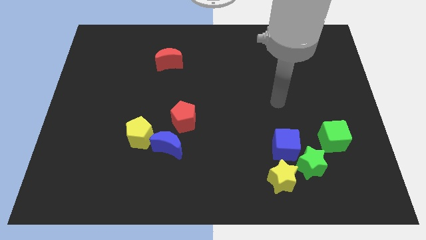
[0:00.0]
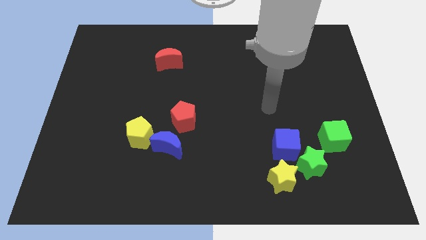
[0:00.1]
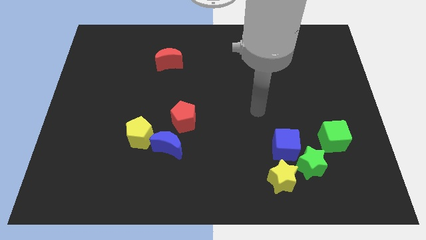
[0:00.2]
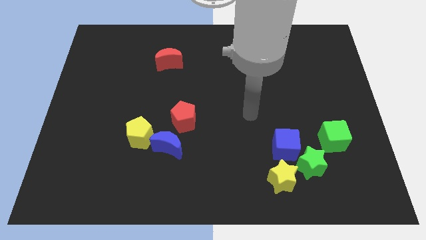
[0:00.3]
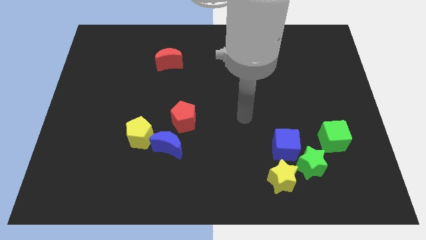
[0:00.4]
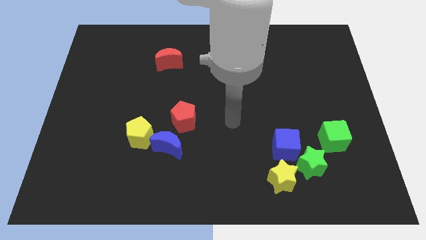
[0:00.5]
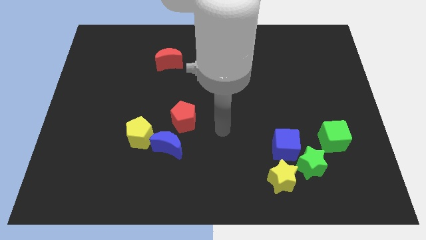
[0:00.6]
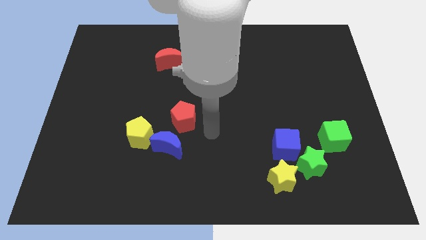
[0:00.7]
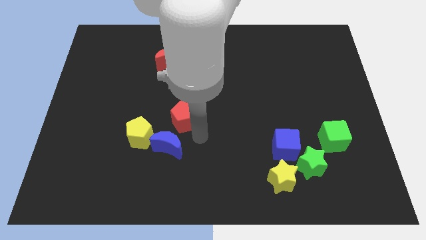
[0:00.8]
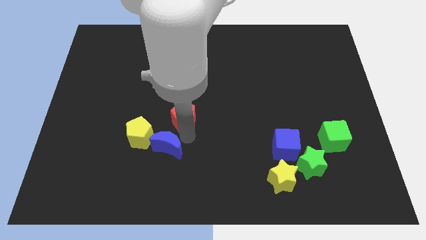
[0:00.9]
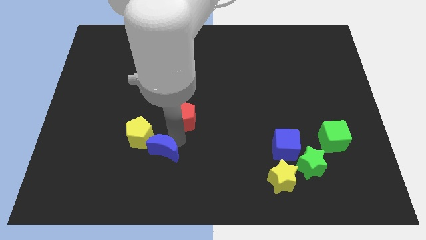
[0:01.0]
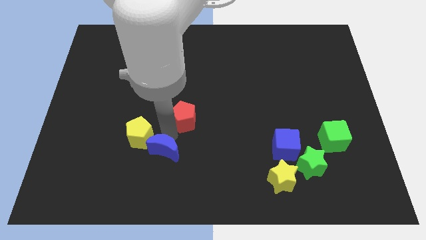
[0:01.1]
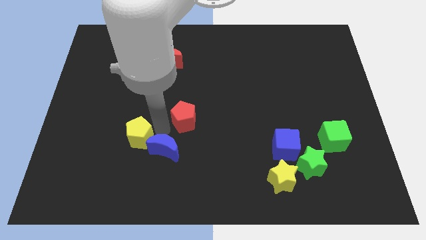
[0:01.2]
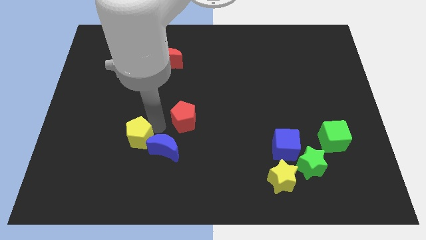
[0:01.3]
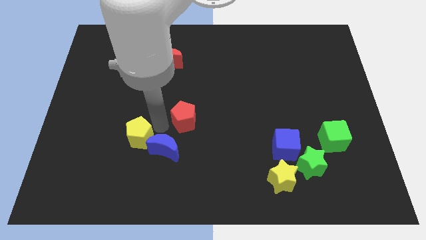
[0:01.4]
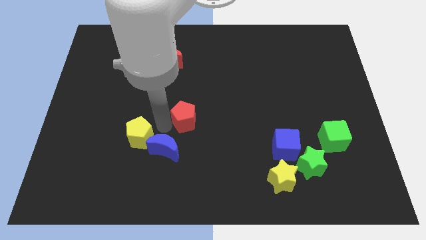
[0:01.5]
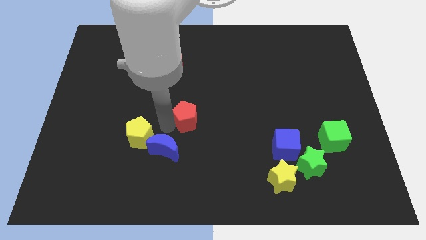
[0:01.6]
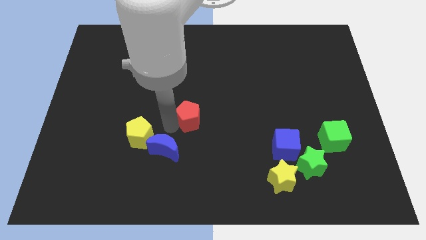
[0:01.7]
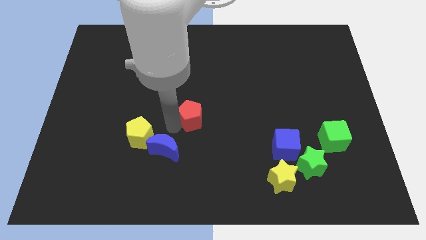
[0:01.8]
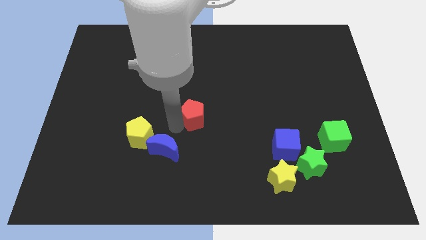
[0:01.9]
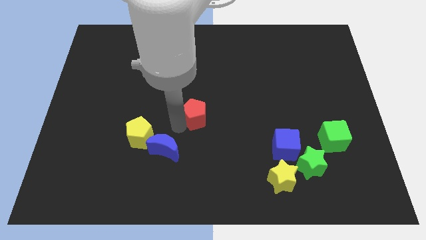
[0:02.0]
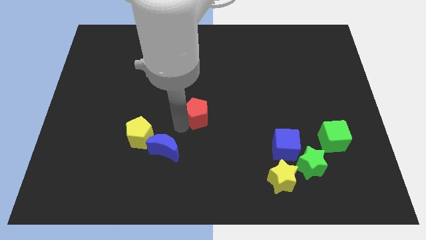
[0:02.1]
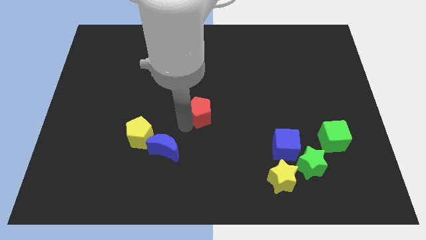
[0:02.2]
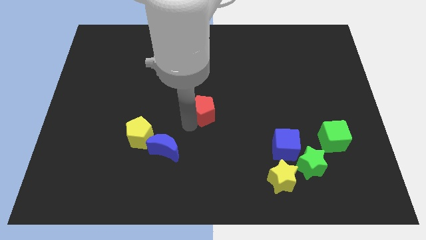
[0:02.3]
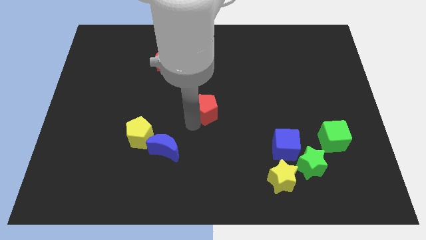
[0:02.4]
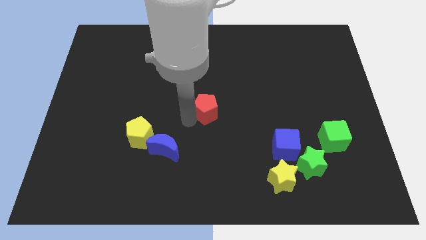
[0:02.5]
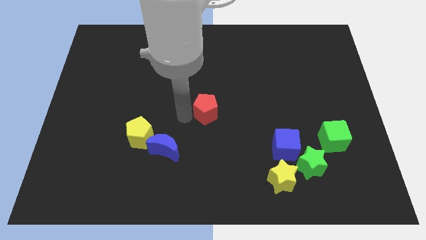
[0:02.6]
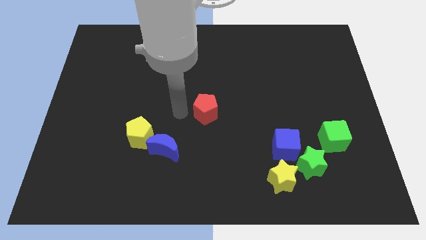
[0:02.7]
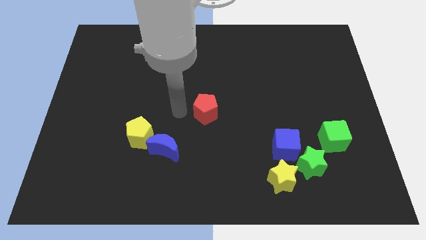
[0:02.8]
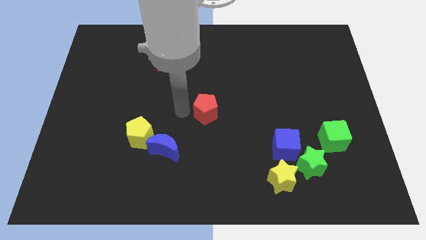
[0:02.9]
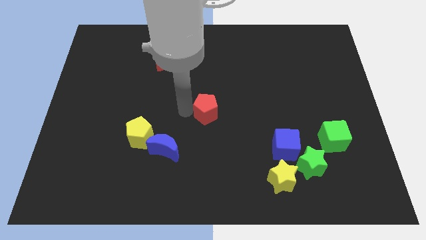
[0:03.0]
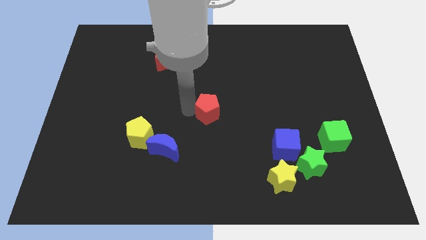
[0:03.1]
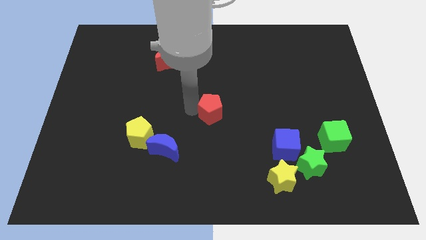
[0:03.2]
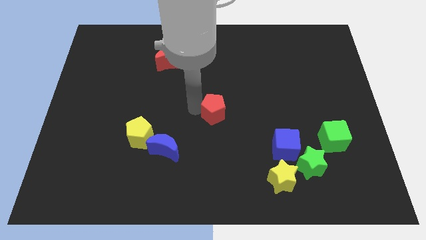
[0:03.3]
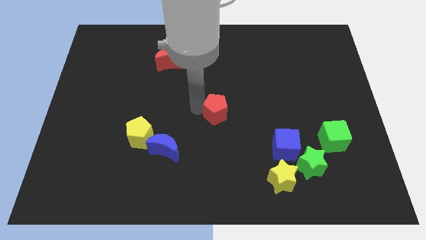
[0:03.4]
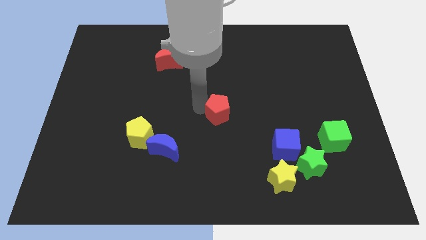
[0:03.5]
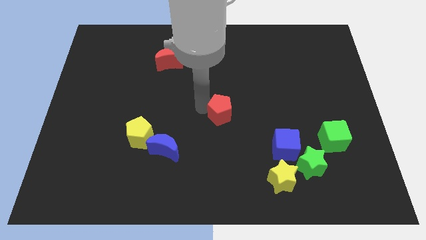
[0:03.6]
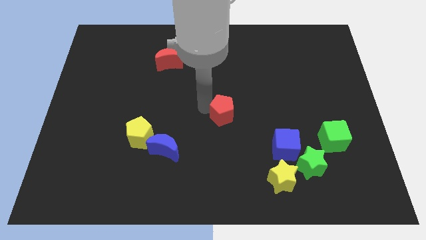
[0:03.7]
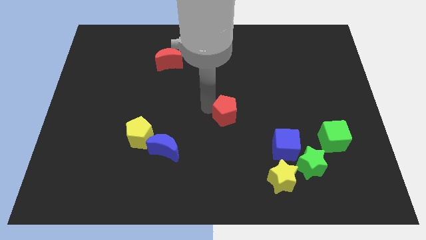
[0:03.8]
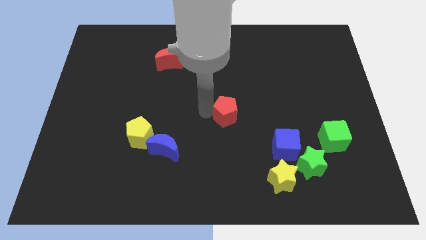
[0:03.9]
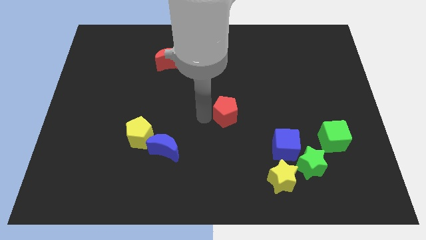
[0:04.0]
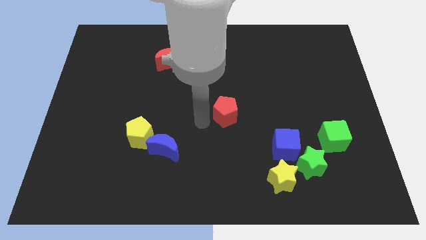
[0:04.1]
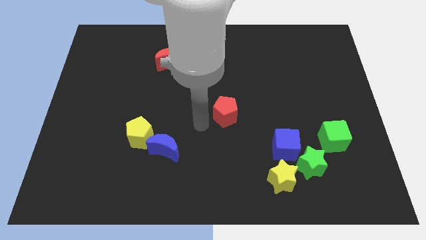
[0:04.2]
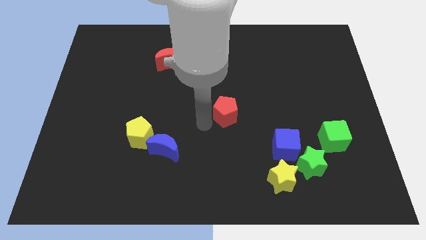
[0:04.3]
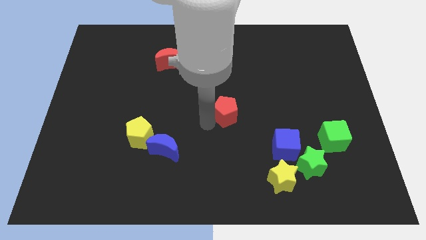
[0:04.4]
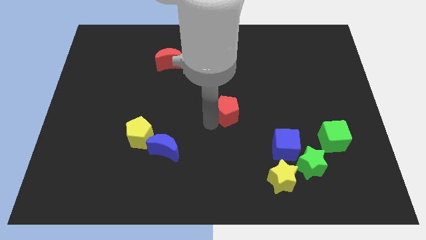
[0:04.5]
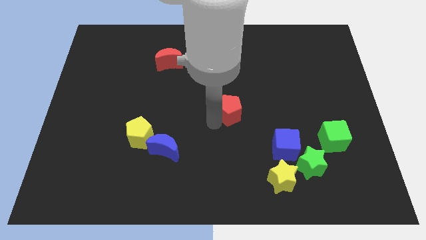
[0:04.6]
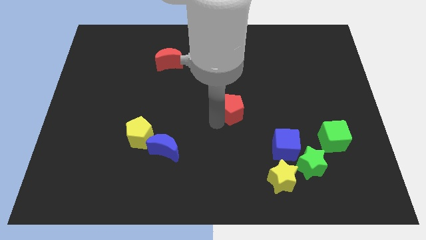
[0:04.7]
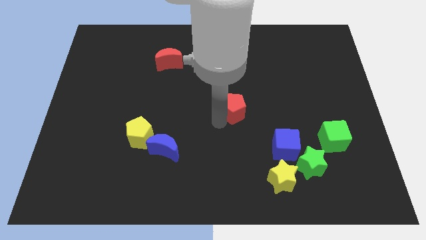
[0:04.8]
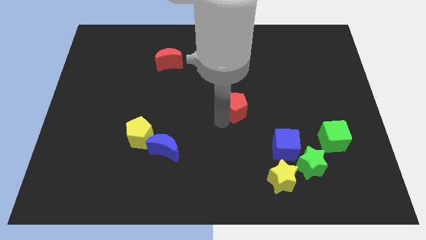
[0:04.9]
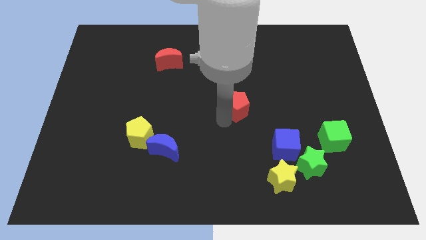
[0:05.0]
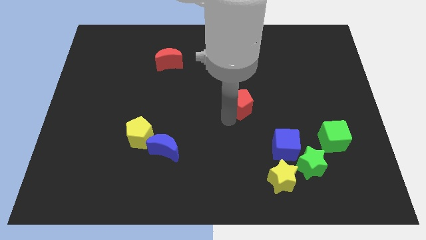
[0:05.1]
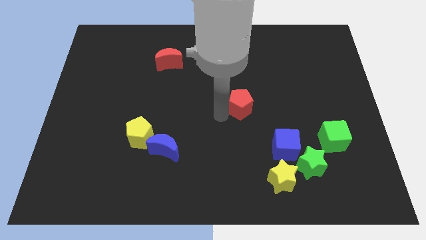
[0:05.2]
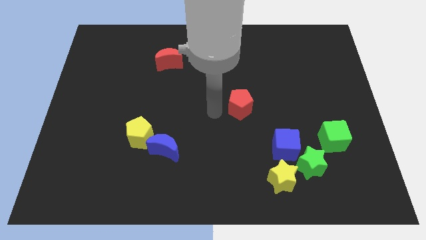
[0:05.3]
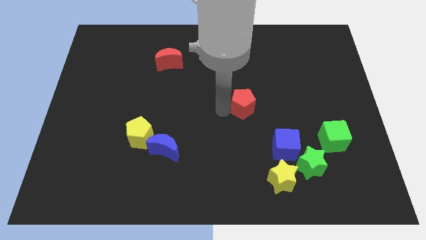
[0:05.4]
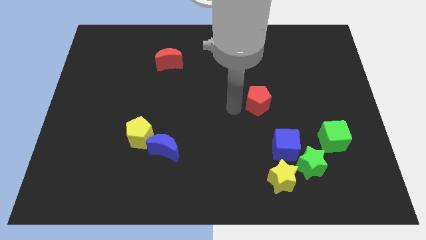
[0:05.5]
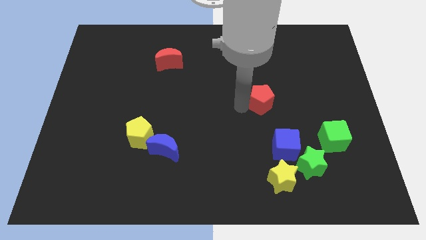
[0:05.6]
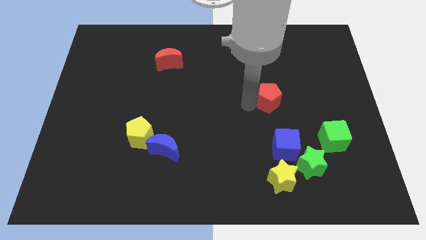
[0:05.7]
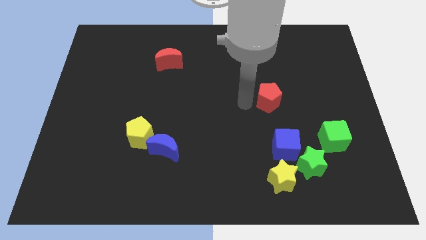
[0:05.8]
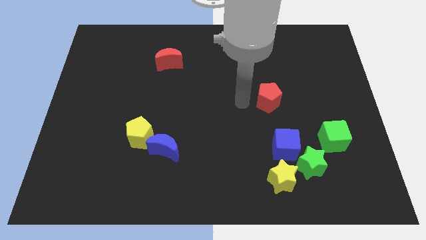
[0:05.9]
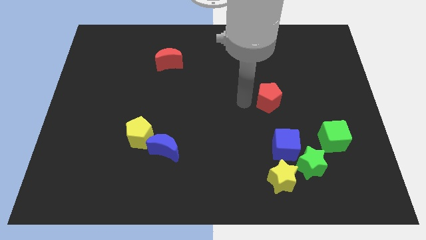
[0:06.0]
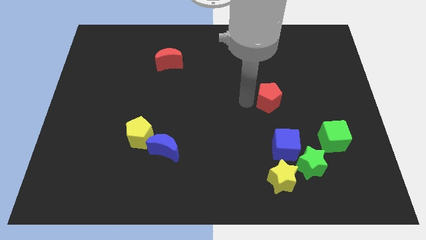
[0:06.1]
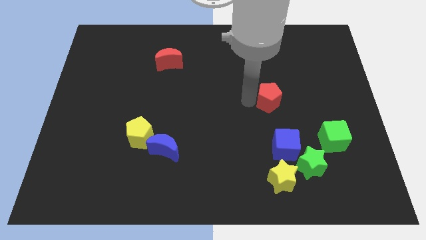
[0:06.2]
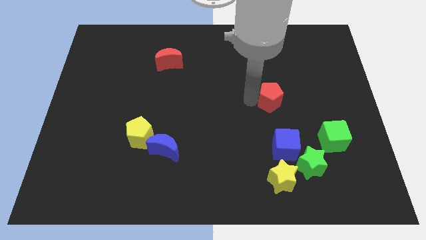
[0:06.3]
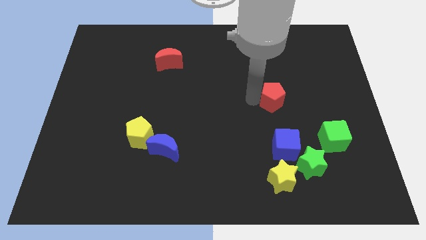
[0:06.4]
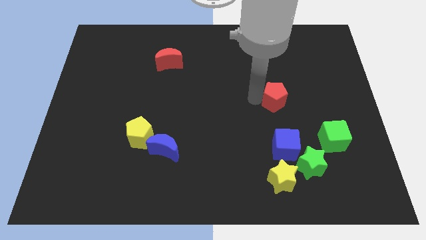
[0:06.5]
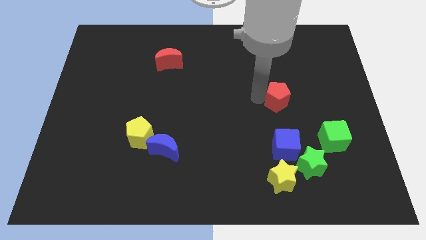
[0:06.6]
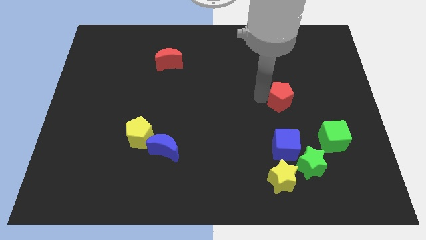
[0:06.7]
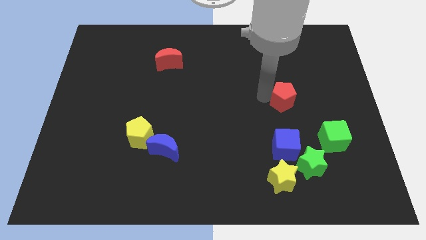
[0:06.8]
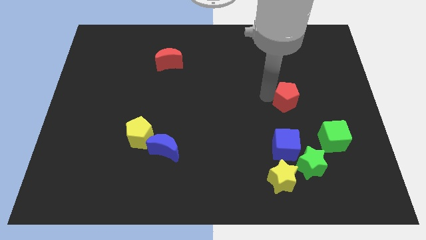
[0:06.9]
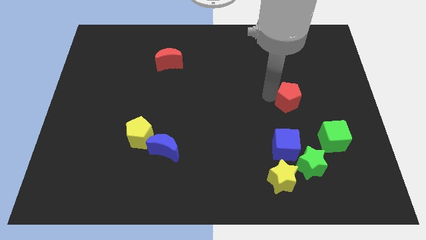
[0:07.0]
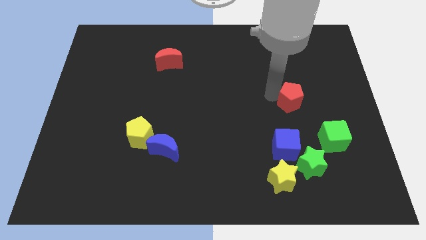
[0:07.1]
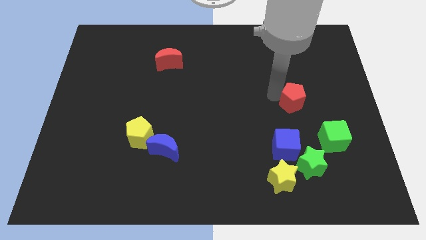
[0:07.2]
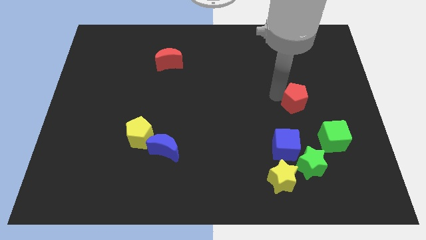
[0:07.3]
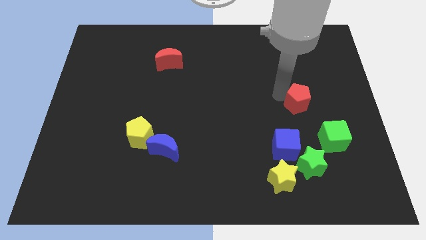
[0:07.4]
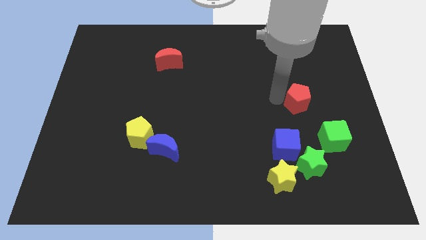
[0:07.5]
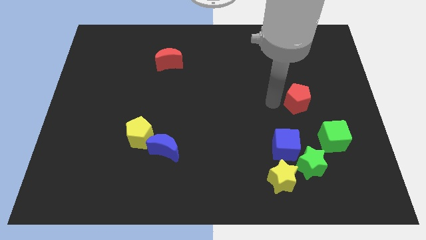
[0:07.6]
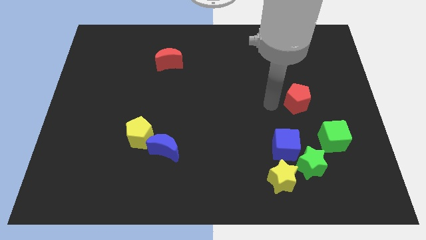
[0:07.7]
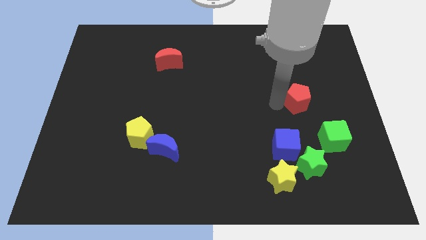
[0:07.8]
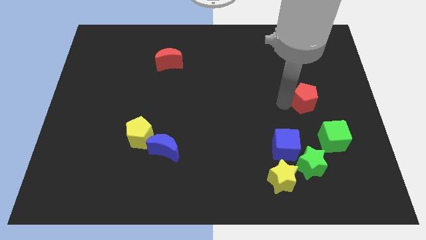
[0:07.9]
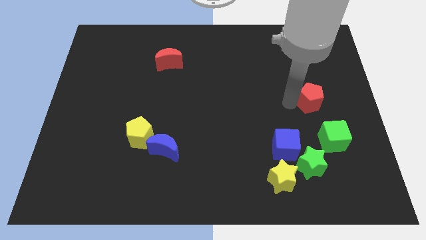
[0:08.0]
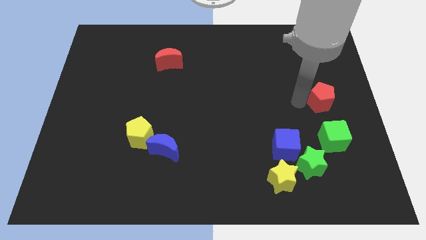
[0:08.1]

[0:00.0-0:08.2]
slide the red pentagon to the right side of the board
